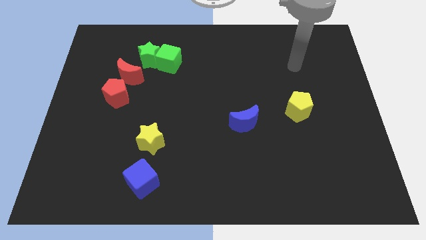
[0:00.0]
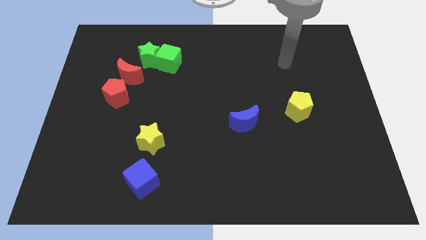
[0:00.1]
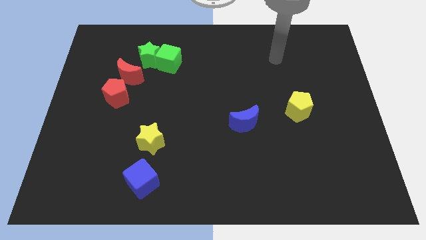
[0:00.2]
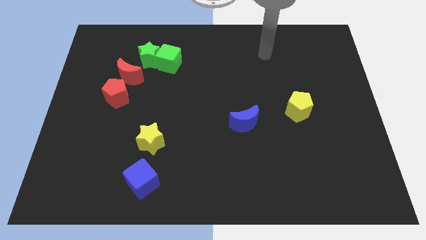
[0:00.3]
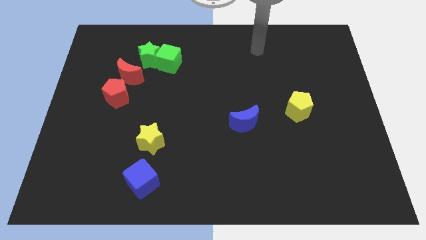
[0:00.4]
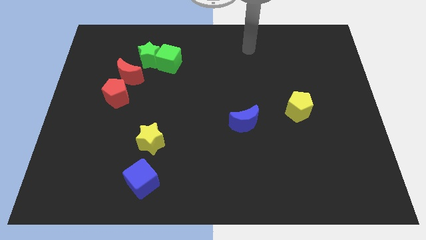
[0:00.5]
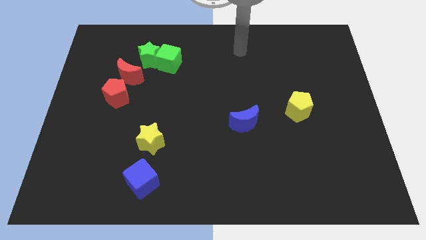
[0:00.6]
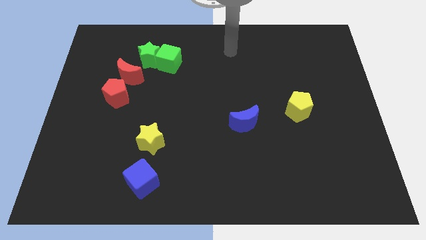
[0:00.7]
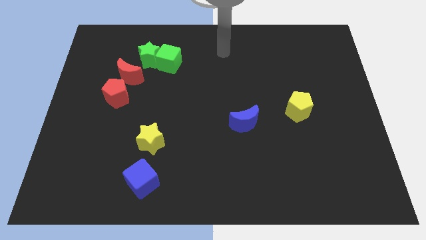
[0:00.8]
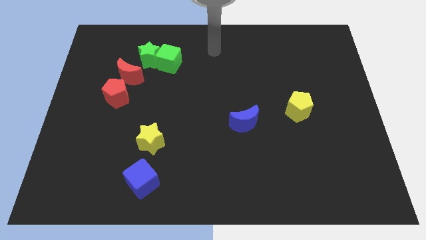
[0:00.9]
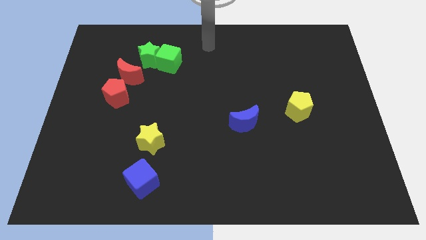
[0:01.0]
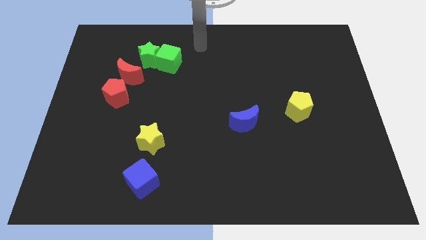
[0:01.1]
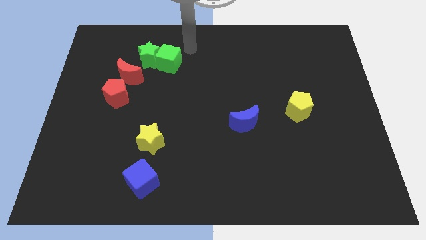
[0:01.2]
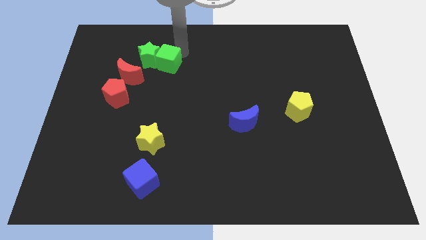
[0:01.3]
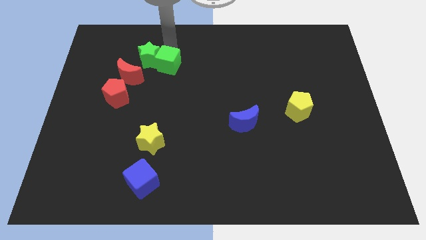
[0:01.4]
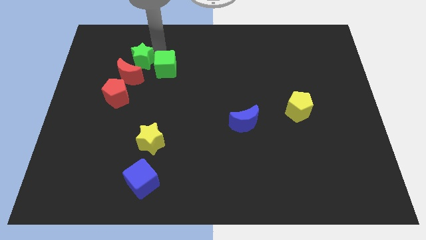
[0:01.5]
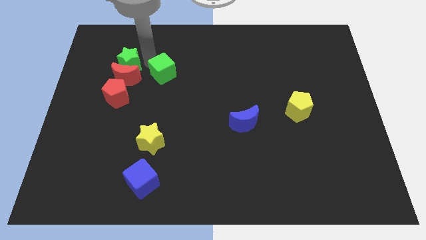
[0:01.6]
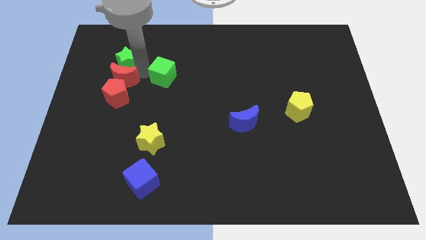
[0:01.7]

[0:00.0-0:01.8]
pull the green cube apart from the green star

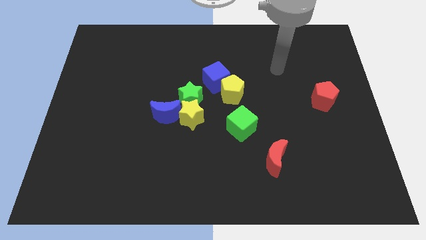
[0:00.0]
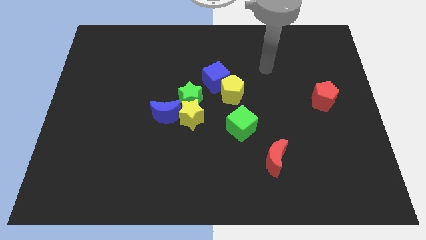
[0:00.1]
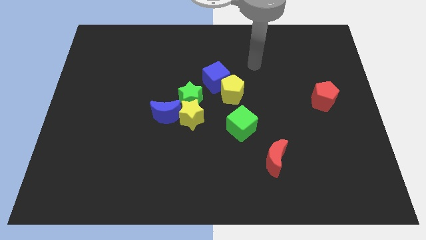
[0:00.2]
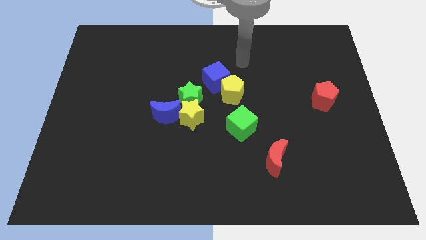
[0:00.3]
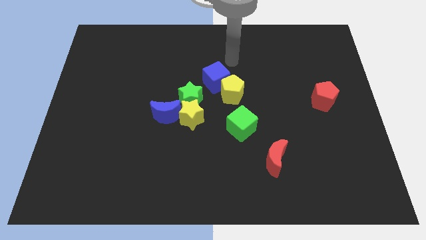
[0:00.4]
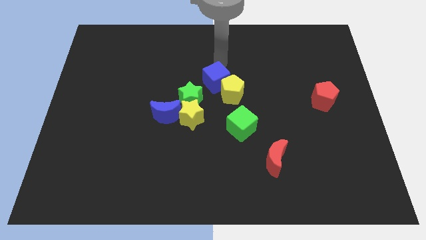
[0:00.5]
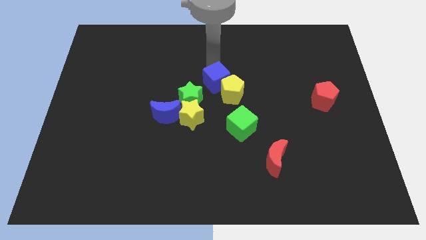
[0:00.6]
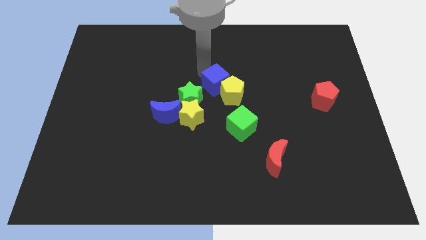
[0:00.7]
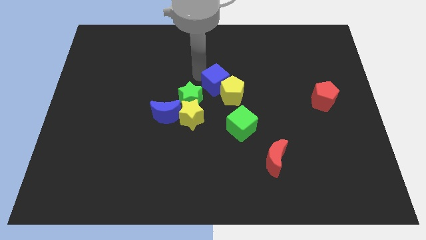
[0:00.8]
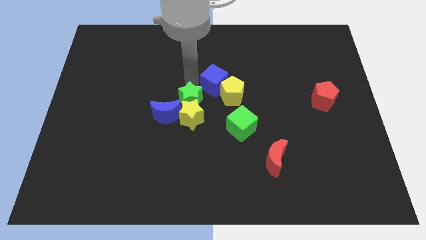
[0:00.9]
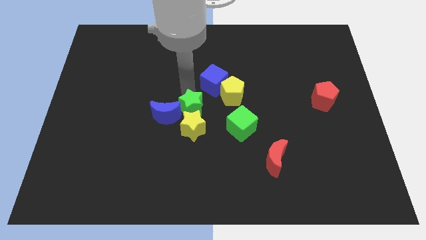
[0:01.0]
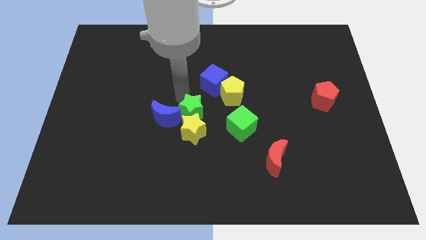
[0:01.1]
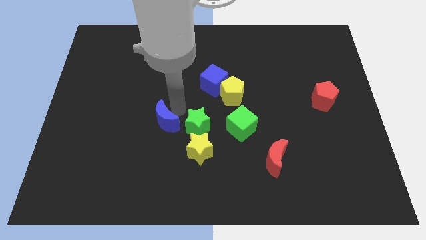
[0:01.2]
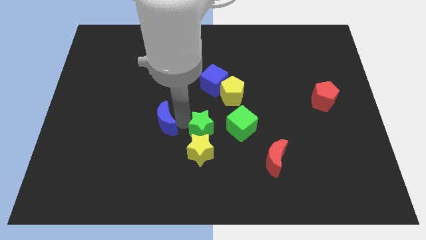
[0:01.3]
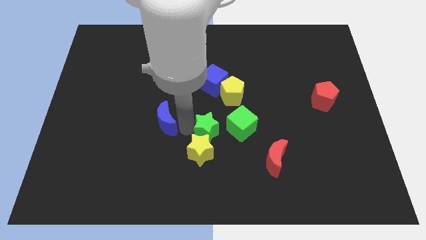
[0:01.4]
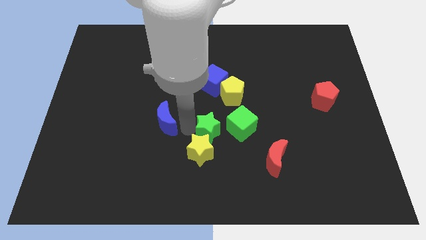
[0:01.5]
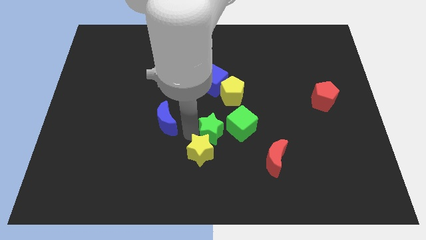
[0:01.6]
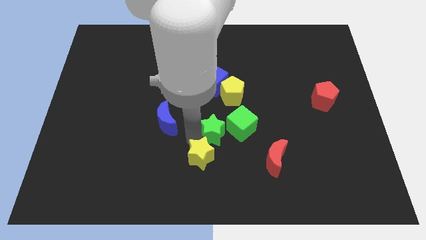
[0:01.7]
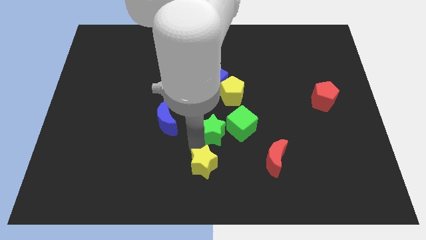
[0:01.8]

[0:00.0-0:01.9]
separate the yellow star from the green star and blue moon

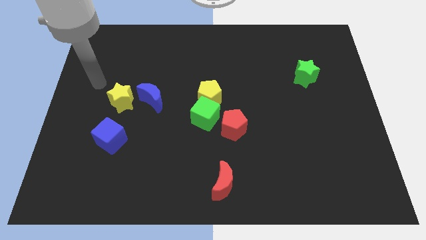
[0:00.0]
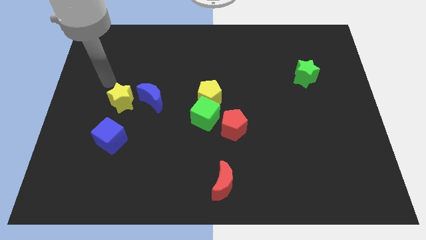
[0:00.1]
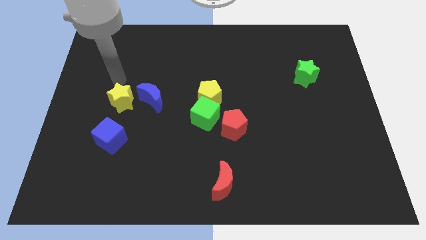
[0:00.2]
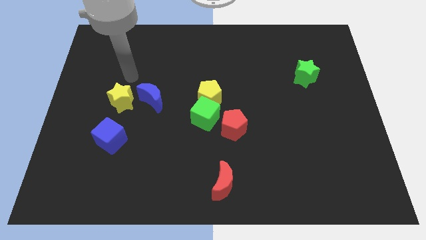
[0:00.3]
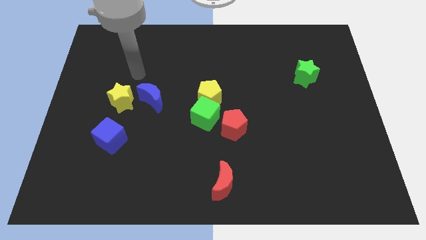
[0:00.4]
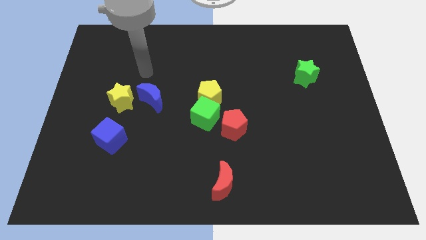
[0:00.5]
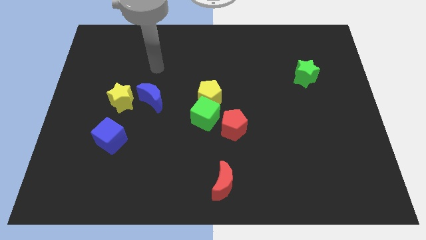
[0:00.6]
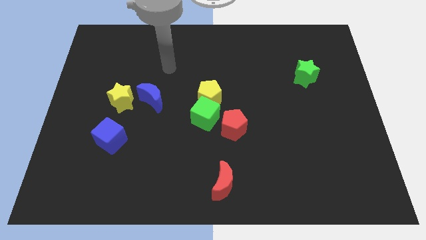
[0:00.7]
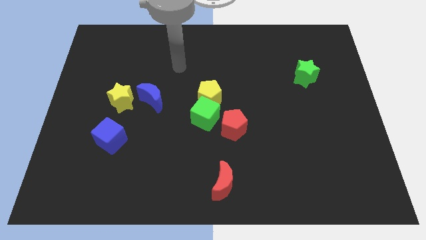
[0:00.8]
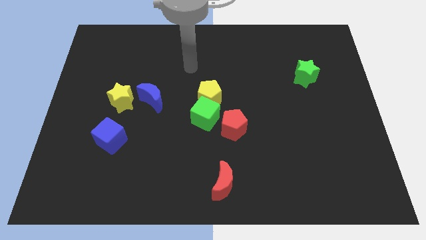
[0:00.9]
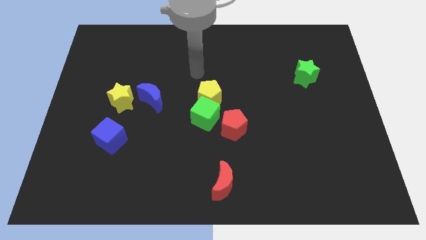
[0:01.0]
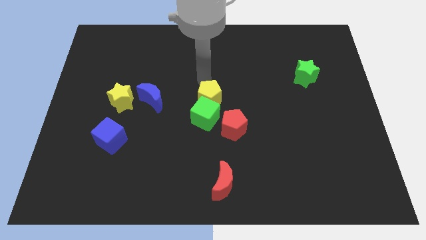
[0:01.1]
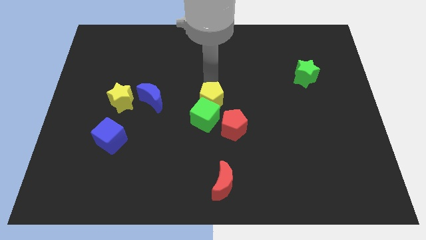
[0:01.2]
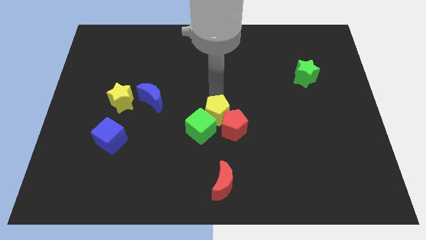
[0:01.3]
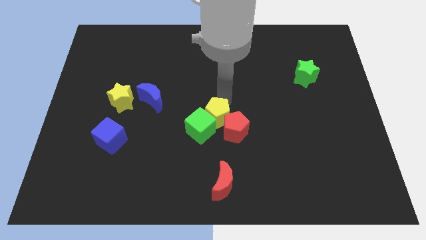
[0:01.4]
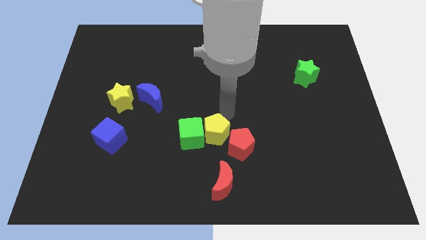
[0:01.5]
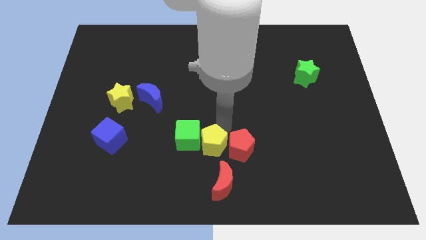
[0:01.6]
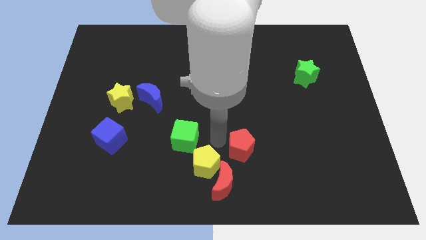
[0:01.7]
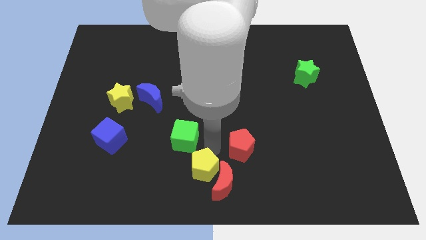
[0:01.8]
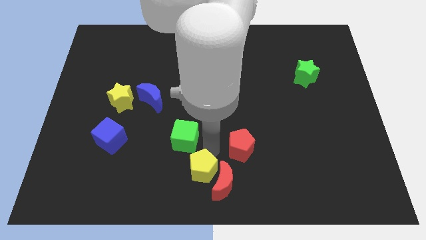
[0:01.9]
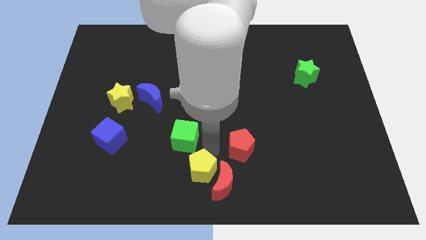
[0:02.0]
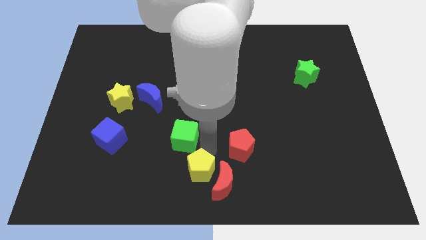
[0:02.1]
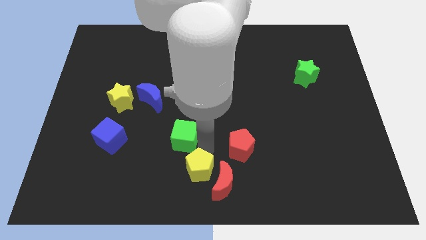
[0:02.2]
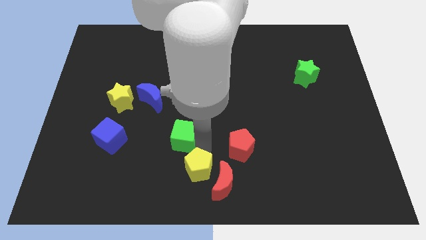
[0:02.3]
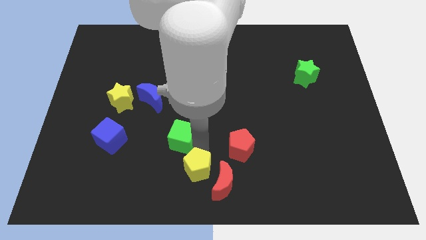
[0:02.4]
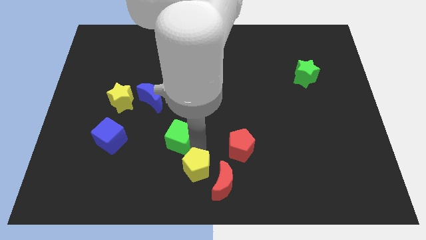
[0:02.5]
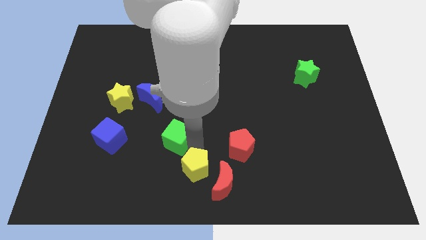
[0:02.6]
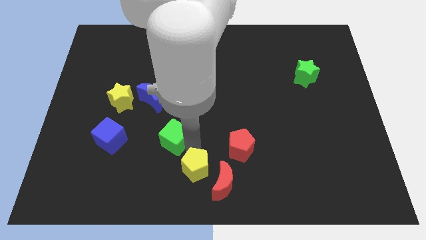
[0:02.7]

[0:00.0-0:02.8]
pull the green cube apart from the yellow pentagon and red pentagon

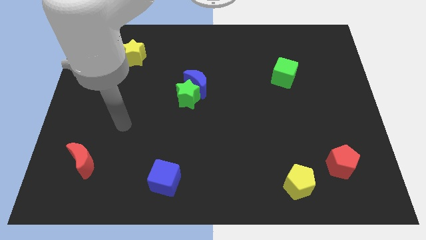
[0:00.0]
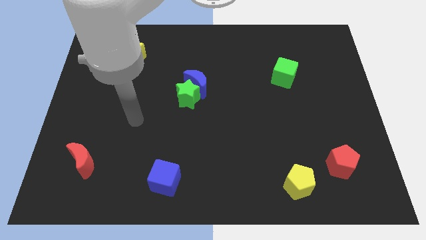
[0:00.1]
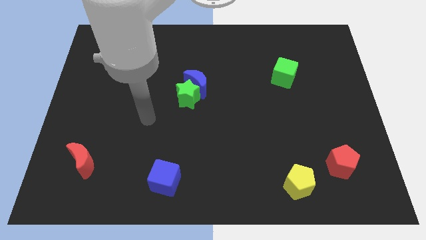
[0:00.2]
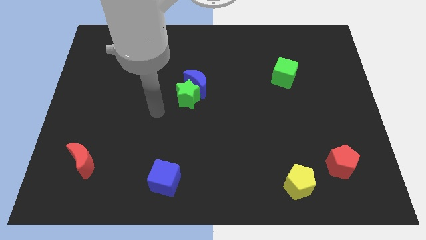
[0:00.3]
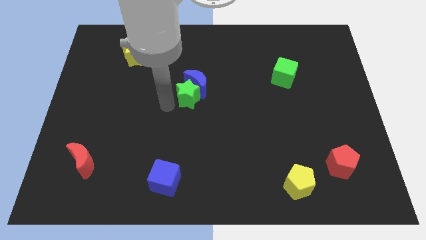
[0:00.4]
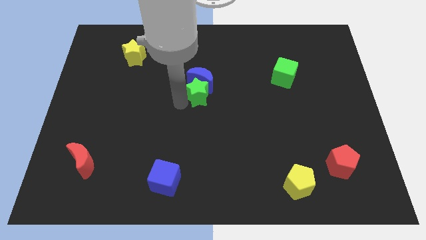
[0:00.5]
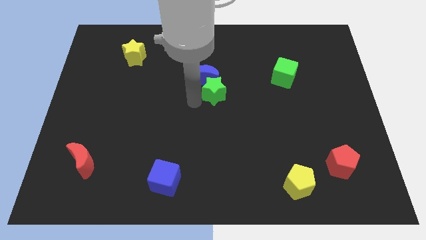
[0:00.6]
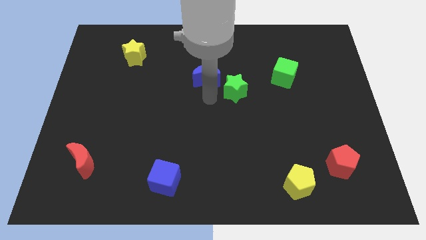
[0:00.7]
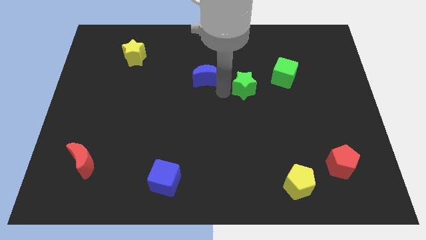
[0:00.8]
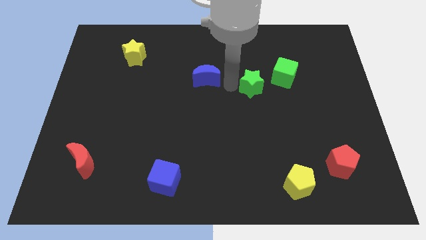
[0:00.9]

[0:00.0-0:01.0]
separate the blue moon from the green star

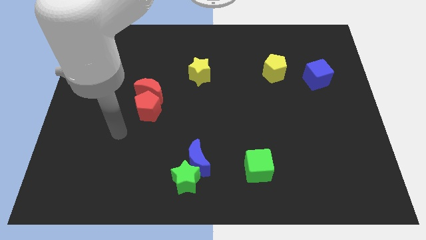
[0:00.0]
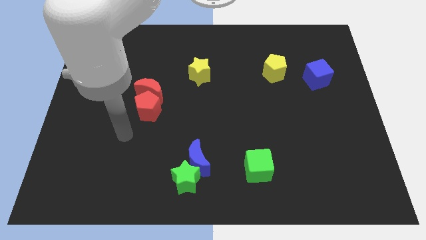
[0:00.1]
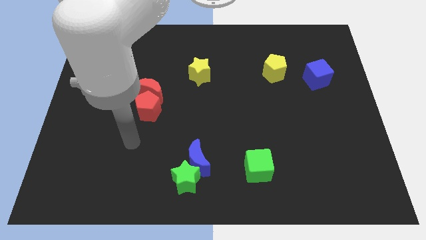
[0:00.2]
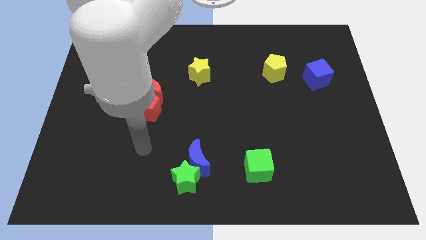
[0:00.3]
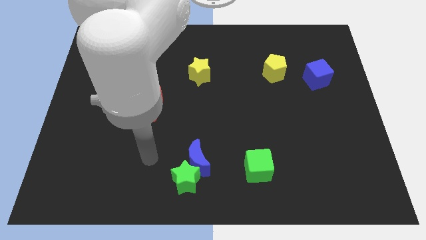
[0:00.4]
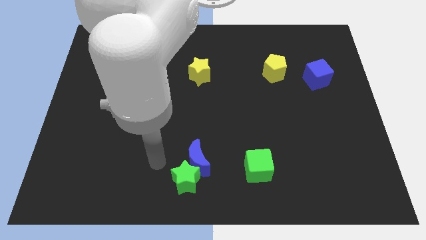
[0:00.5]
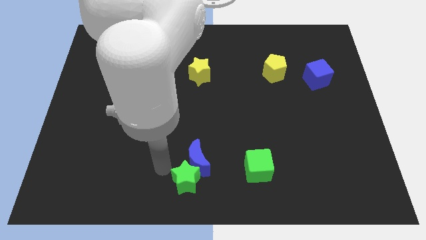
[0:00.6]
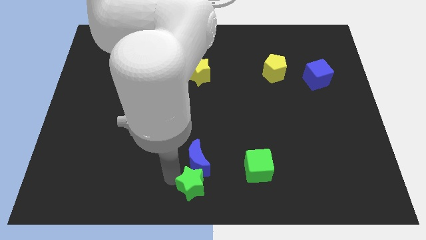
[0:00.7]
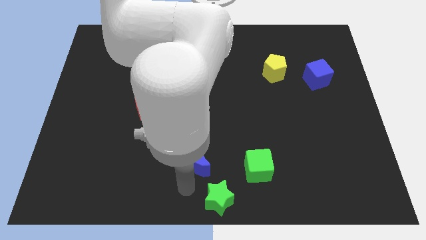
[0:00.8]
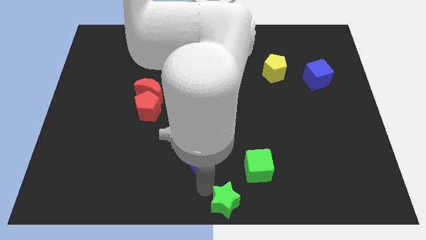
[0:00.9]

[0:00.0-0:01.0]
move the blue moon away from the green star

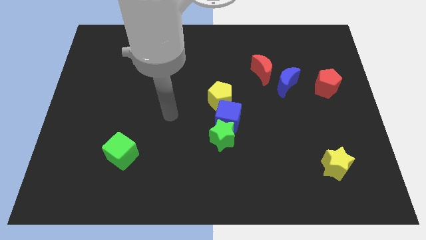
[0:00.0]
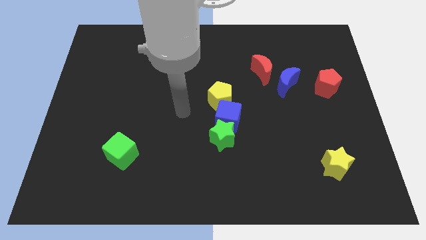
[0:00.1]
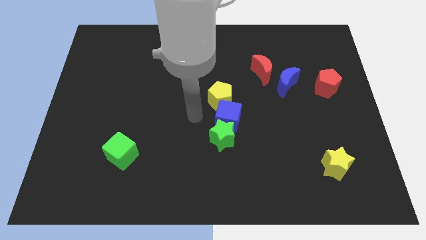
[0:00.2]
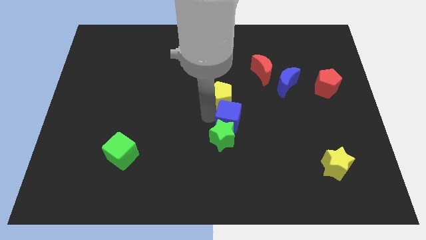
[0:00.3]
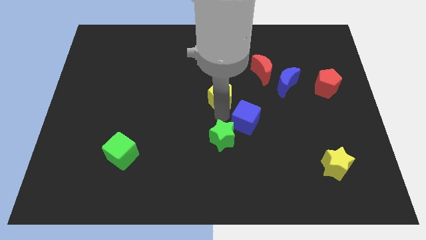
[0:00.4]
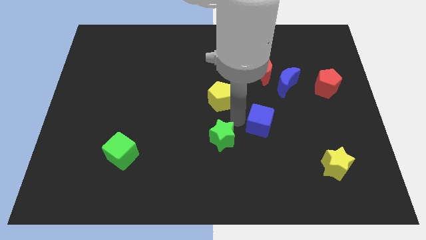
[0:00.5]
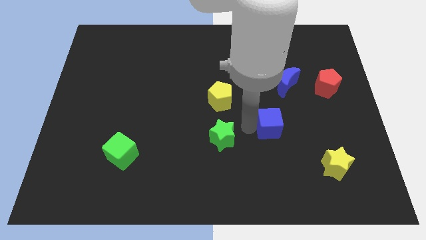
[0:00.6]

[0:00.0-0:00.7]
separate the green star from the blue cube

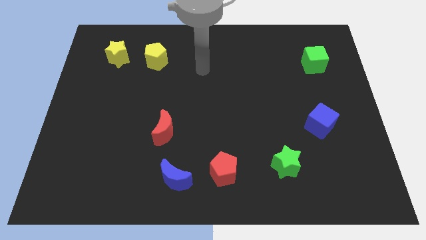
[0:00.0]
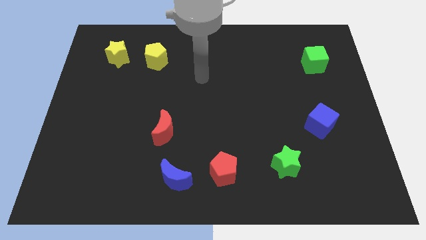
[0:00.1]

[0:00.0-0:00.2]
pull the red pentagon apart from the blue moon
